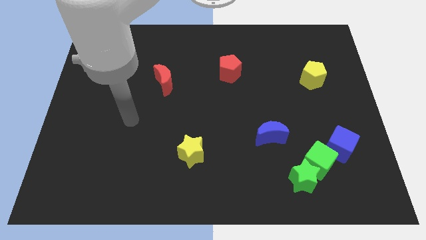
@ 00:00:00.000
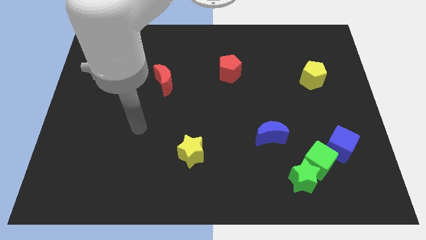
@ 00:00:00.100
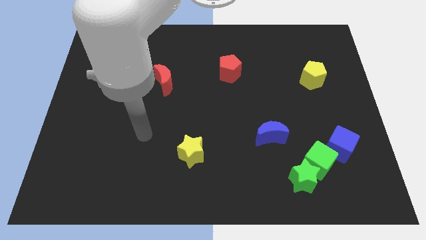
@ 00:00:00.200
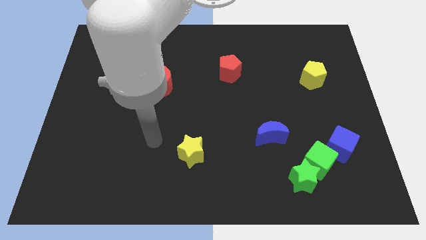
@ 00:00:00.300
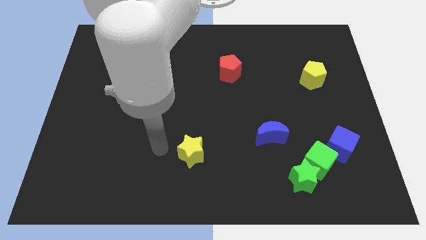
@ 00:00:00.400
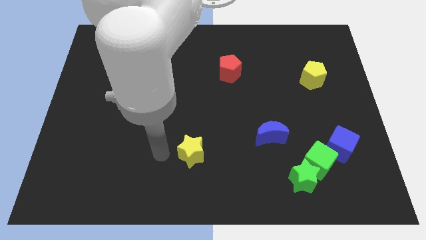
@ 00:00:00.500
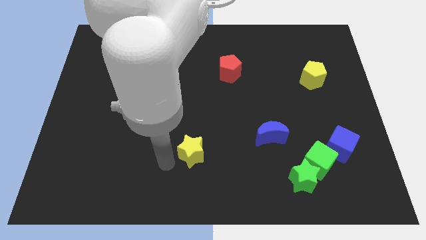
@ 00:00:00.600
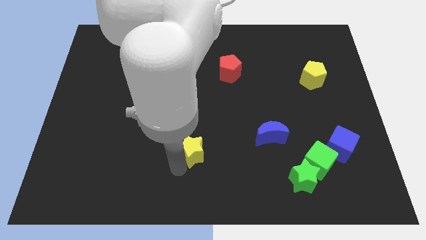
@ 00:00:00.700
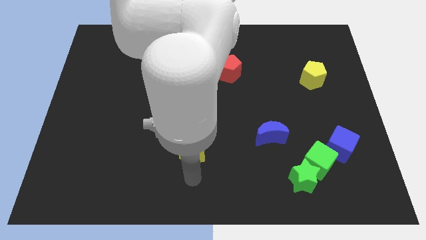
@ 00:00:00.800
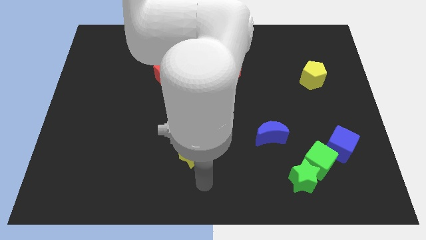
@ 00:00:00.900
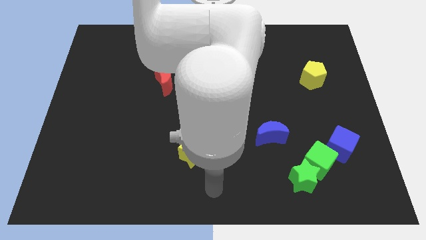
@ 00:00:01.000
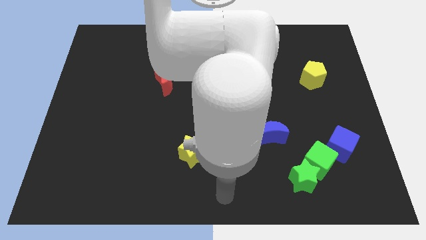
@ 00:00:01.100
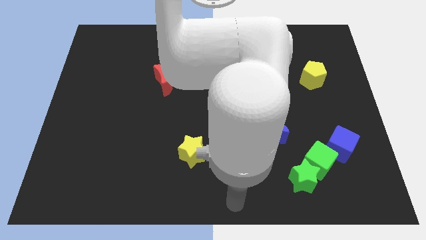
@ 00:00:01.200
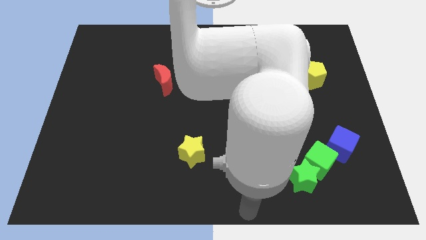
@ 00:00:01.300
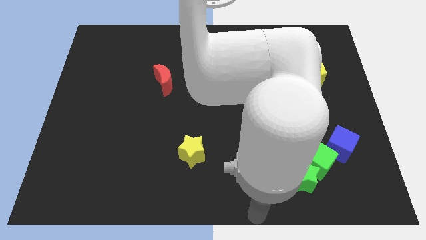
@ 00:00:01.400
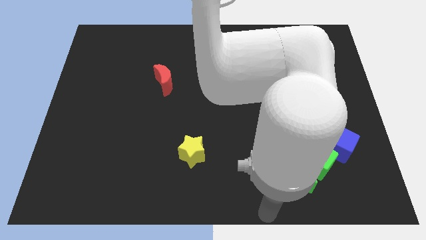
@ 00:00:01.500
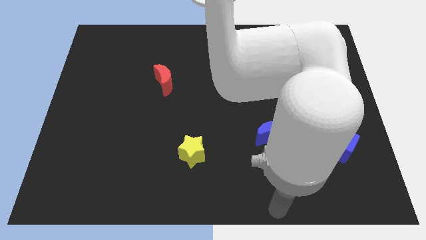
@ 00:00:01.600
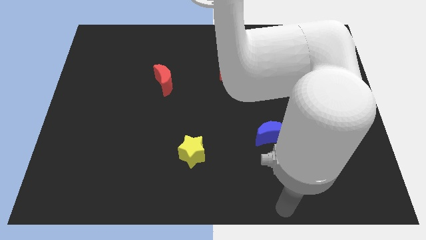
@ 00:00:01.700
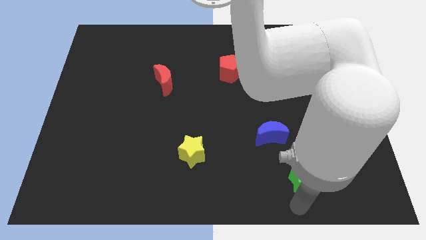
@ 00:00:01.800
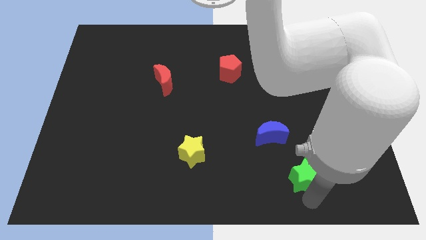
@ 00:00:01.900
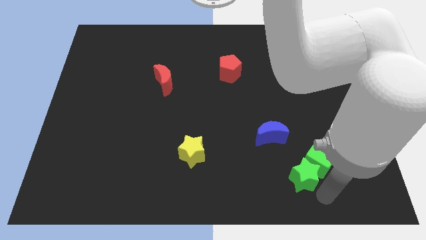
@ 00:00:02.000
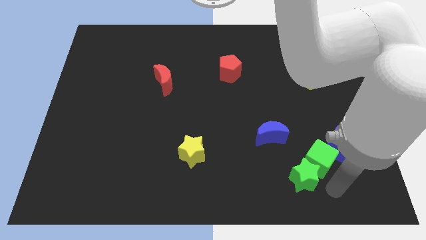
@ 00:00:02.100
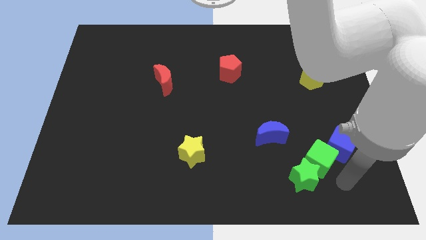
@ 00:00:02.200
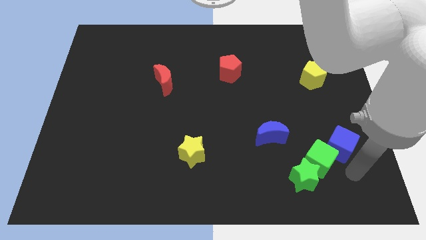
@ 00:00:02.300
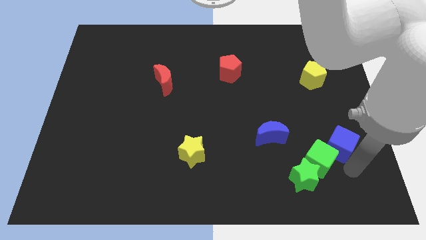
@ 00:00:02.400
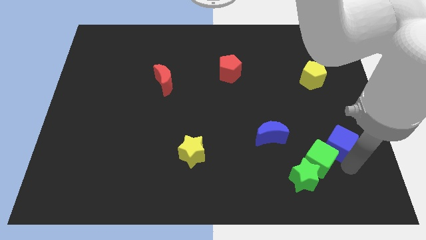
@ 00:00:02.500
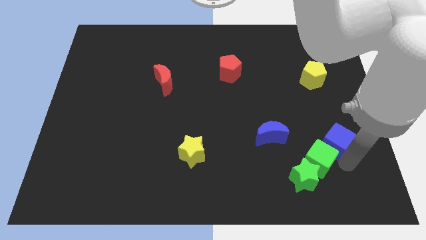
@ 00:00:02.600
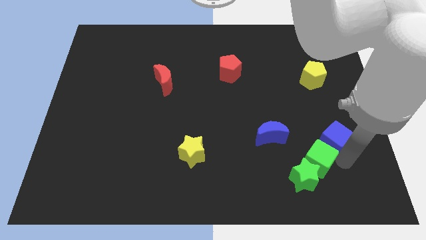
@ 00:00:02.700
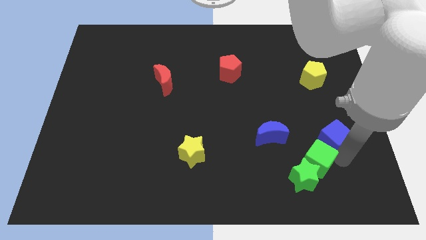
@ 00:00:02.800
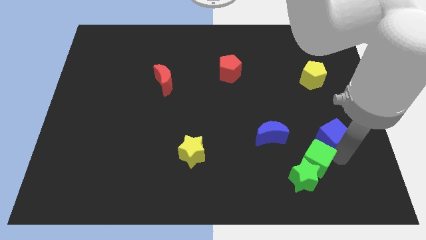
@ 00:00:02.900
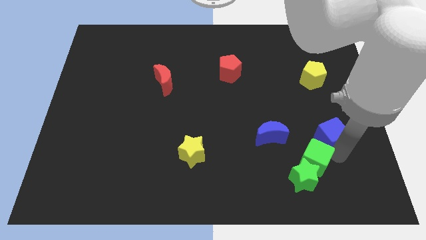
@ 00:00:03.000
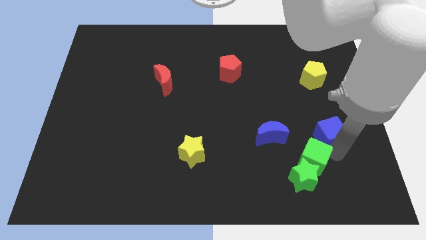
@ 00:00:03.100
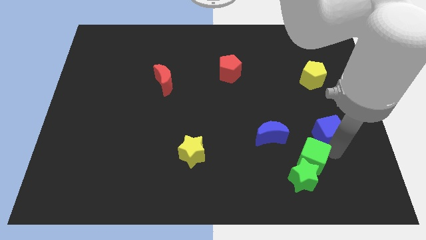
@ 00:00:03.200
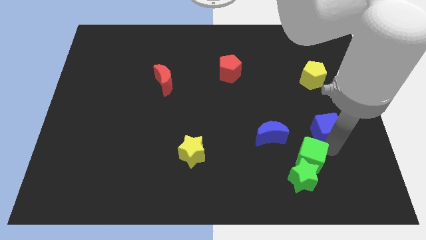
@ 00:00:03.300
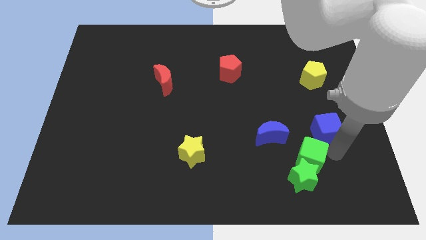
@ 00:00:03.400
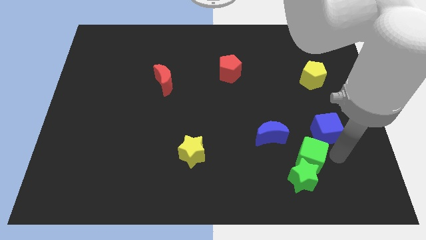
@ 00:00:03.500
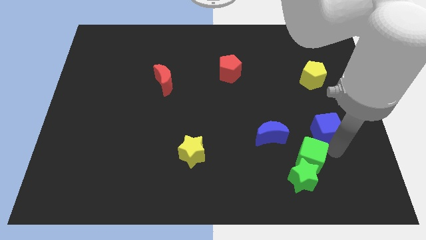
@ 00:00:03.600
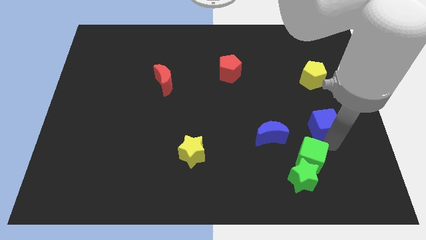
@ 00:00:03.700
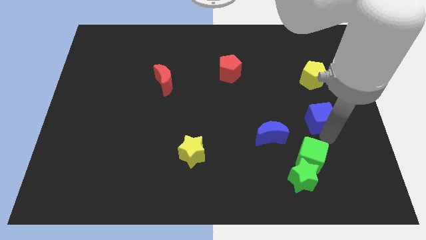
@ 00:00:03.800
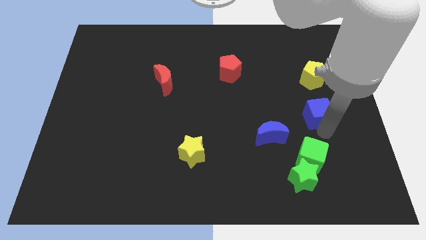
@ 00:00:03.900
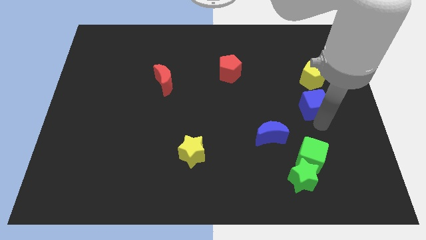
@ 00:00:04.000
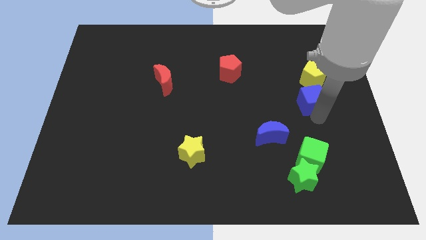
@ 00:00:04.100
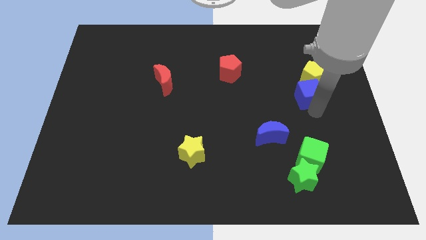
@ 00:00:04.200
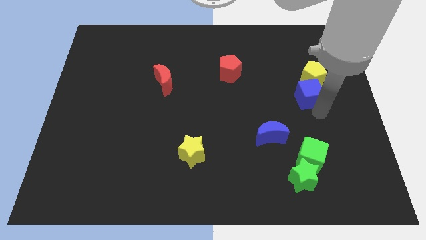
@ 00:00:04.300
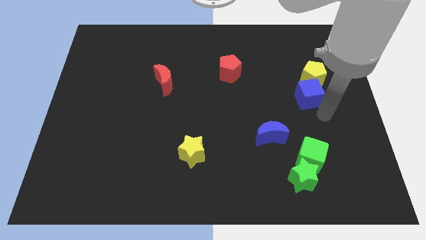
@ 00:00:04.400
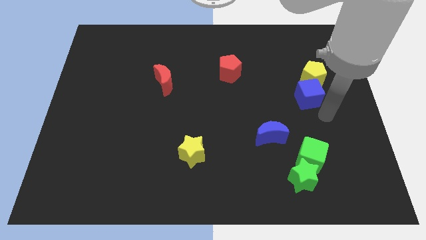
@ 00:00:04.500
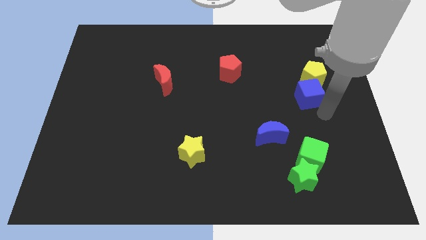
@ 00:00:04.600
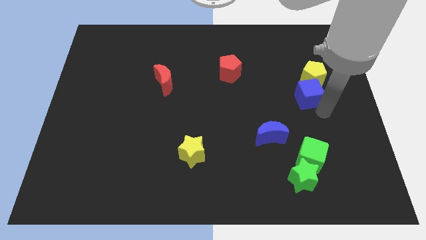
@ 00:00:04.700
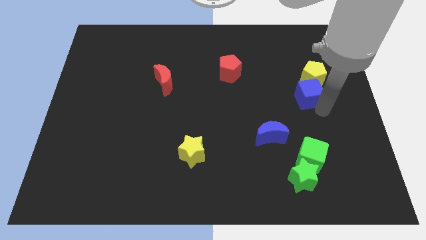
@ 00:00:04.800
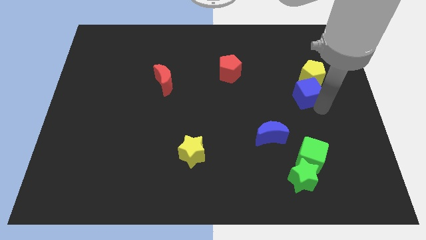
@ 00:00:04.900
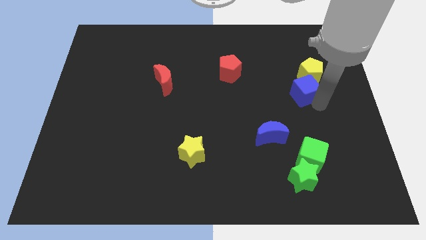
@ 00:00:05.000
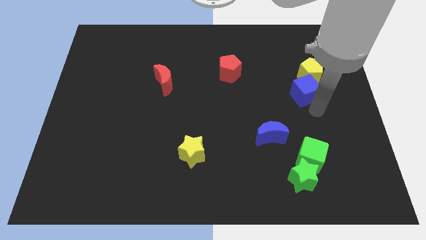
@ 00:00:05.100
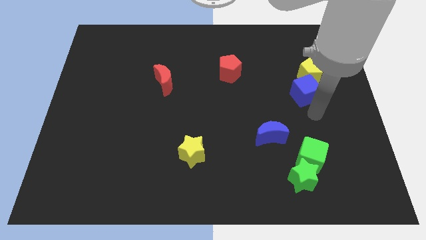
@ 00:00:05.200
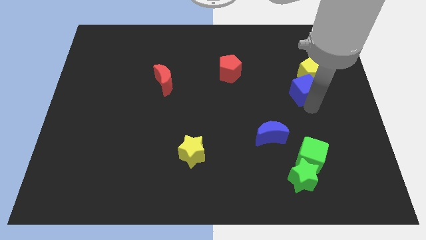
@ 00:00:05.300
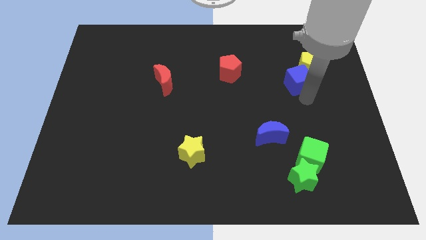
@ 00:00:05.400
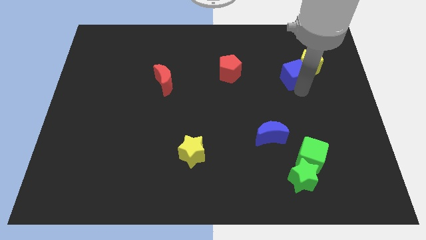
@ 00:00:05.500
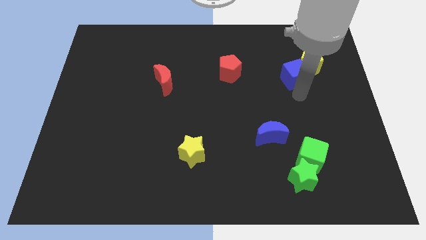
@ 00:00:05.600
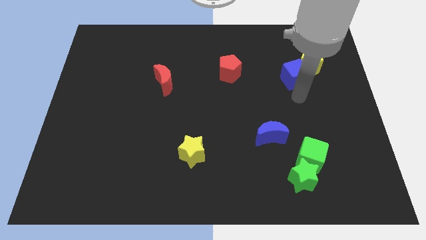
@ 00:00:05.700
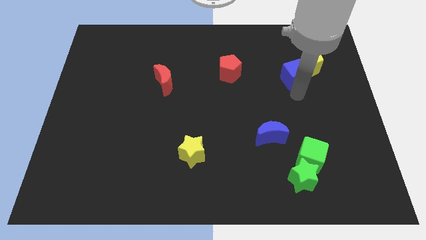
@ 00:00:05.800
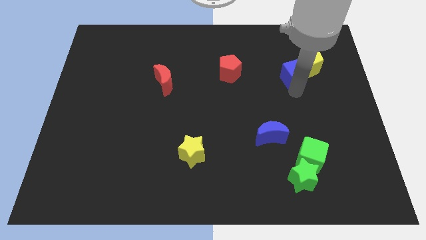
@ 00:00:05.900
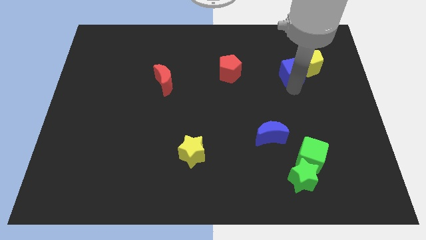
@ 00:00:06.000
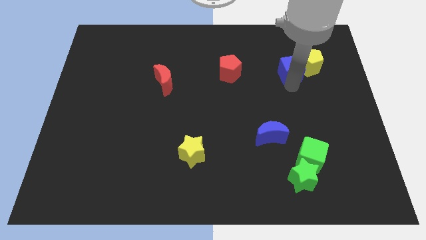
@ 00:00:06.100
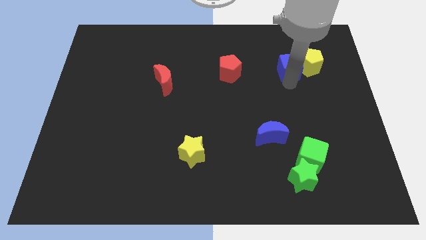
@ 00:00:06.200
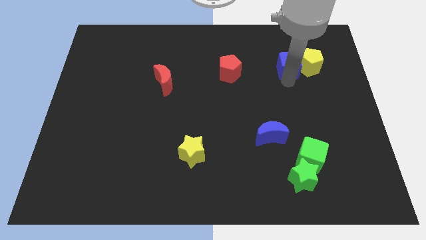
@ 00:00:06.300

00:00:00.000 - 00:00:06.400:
put the blue cube to the top left of the yellow pentagon

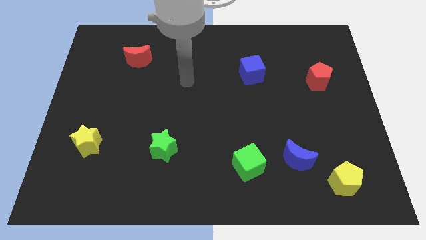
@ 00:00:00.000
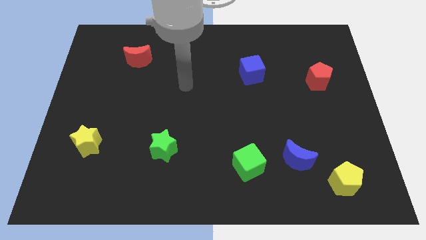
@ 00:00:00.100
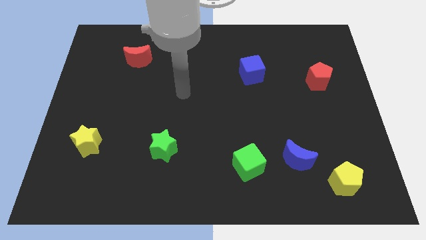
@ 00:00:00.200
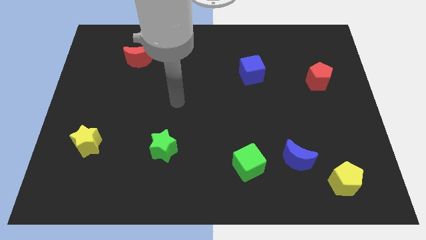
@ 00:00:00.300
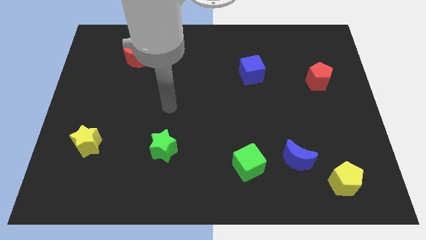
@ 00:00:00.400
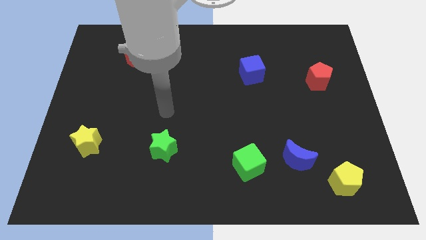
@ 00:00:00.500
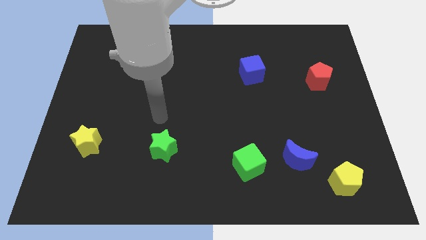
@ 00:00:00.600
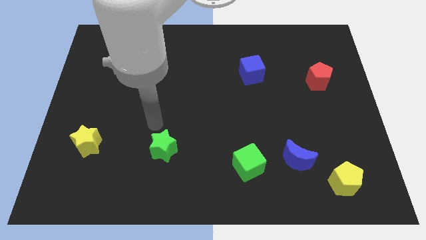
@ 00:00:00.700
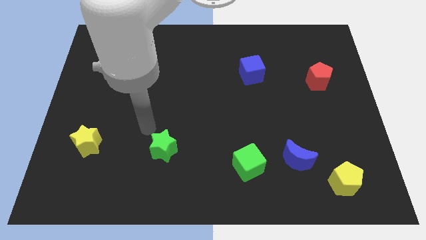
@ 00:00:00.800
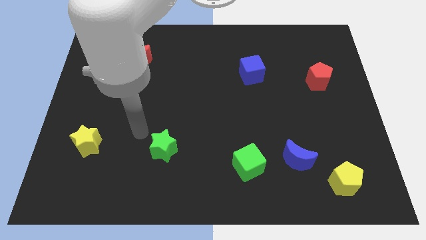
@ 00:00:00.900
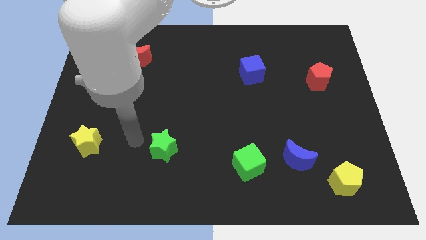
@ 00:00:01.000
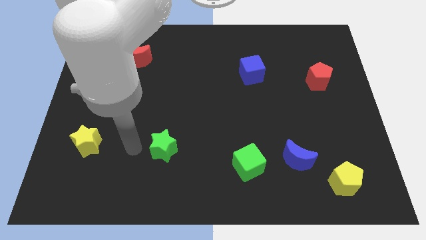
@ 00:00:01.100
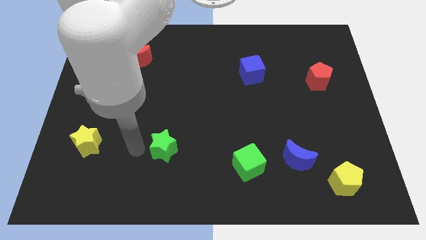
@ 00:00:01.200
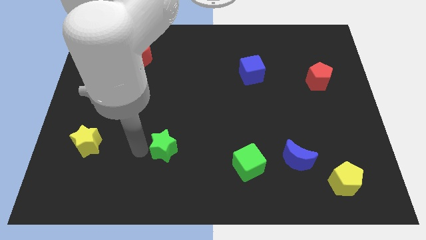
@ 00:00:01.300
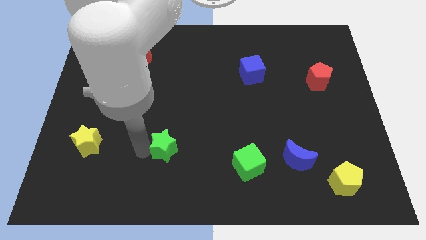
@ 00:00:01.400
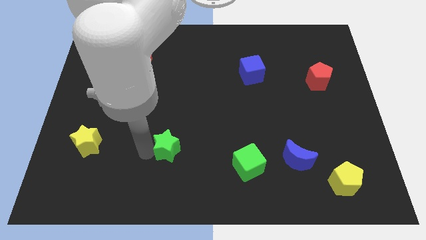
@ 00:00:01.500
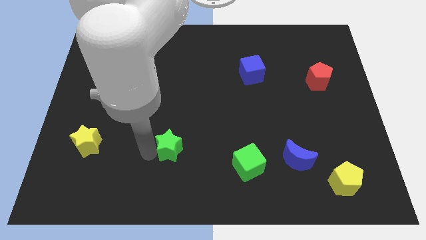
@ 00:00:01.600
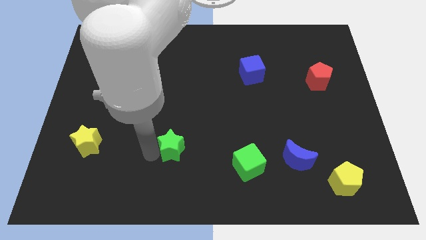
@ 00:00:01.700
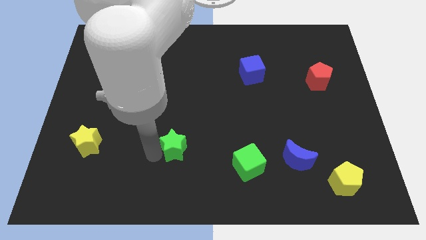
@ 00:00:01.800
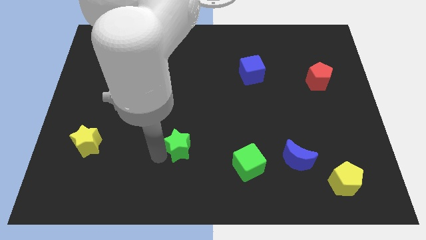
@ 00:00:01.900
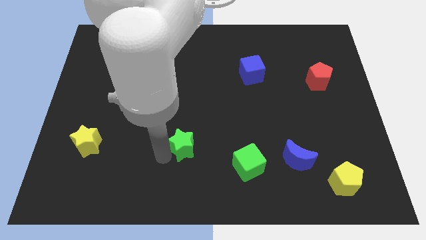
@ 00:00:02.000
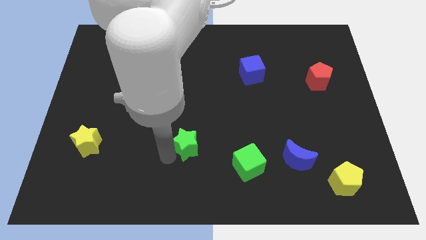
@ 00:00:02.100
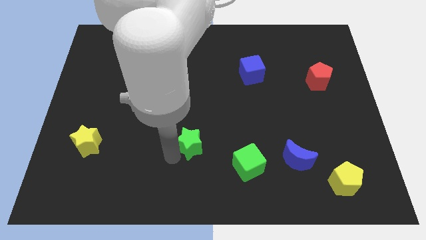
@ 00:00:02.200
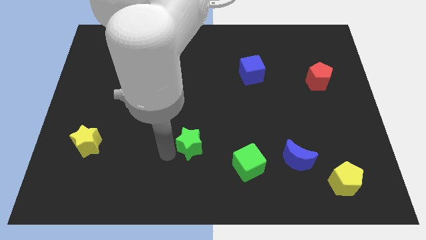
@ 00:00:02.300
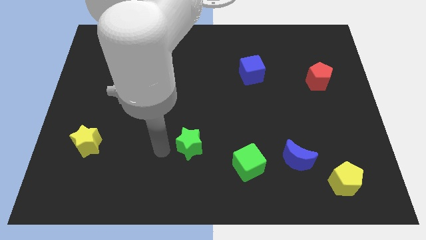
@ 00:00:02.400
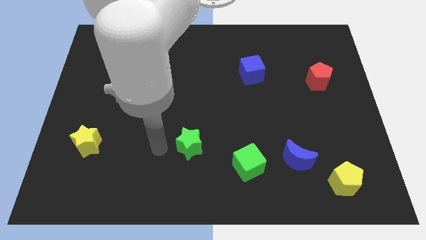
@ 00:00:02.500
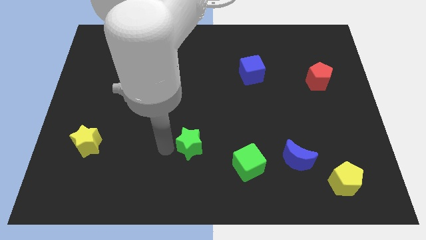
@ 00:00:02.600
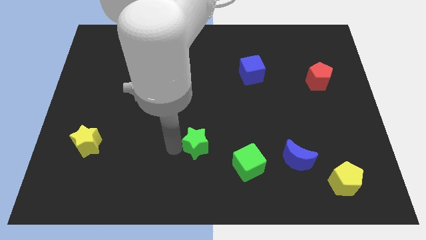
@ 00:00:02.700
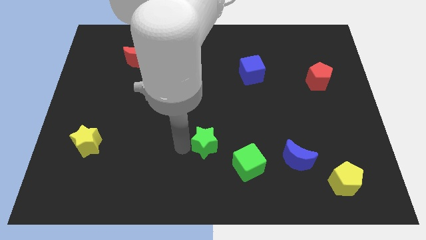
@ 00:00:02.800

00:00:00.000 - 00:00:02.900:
move the green star to the top left of the green cube
